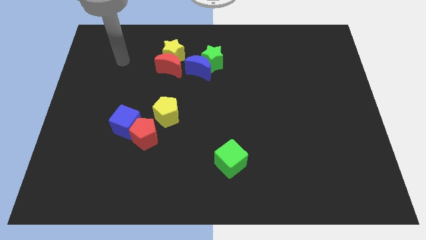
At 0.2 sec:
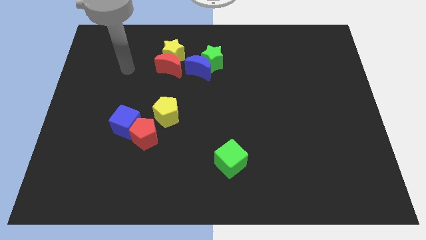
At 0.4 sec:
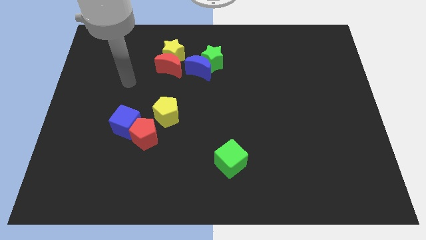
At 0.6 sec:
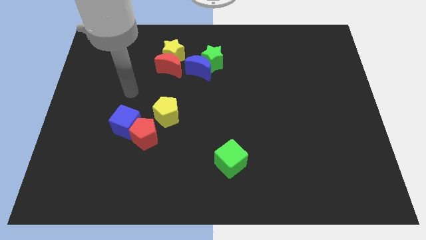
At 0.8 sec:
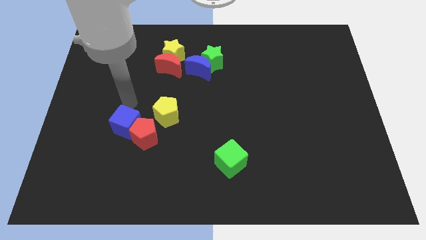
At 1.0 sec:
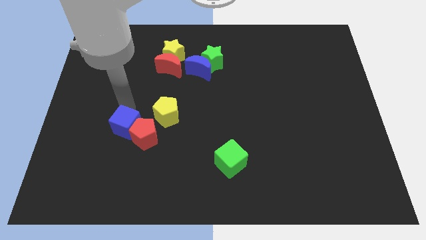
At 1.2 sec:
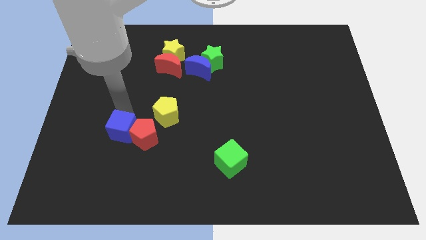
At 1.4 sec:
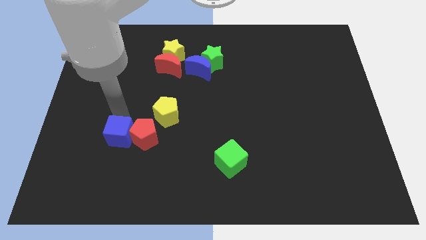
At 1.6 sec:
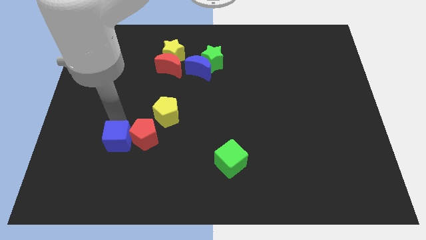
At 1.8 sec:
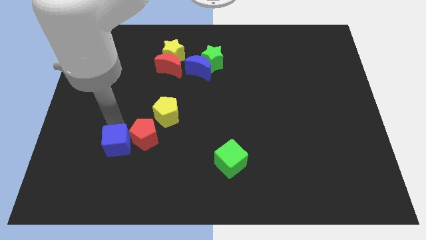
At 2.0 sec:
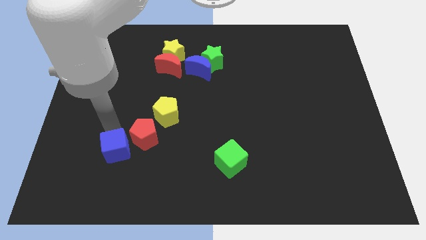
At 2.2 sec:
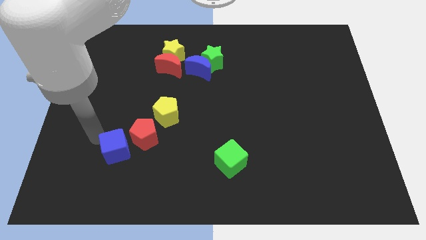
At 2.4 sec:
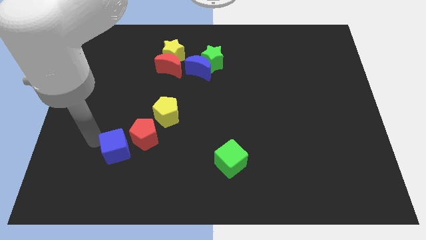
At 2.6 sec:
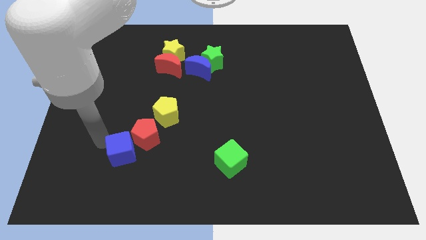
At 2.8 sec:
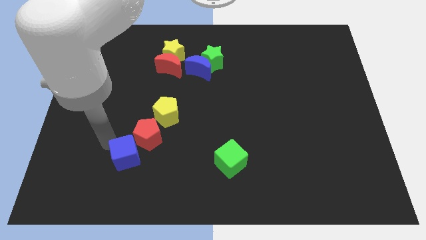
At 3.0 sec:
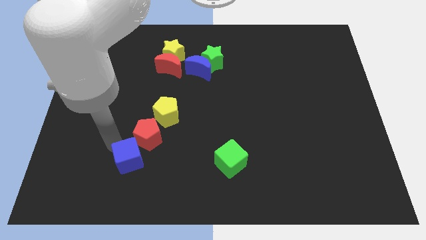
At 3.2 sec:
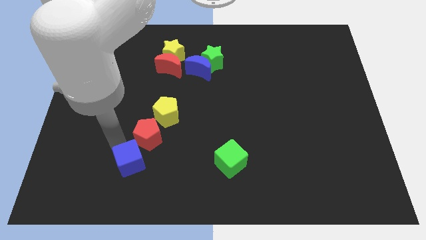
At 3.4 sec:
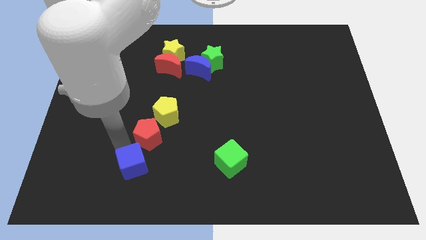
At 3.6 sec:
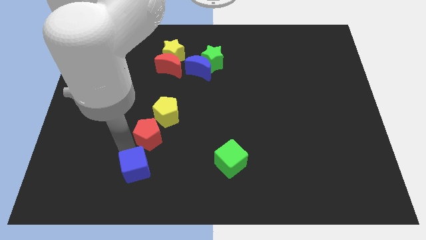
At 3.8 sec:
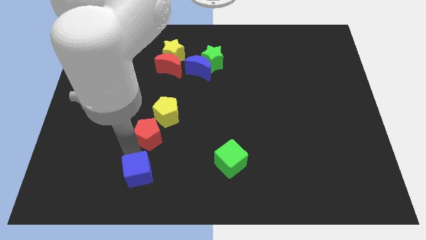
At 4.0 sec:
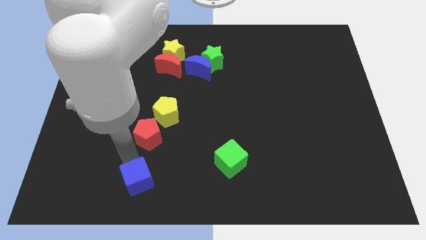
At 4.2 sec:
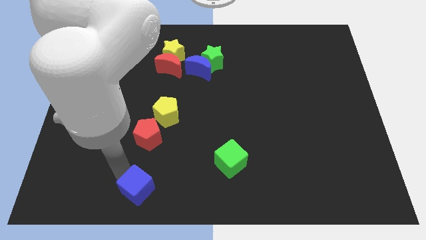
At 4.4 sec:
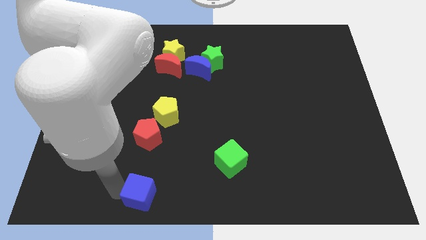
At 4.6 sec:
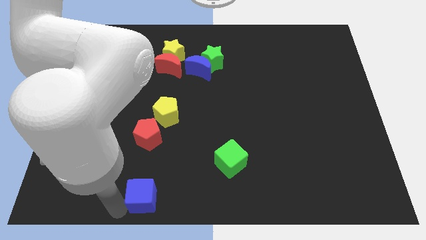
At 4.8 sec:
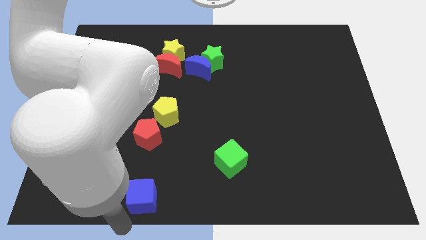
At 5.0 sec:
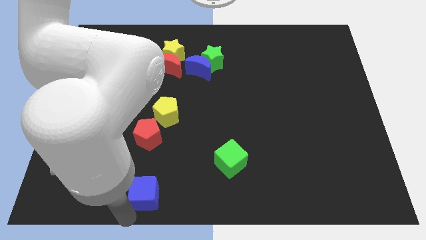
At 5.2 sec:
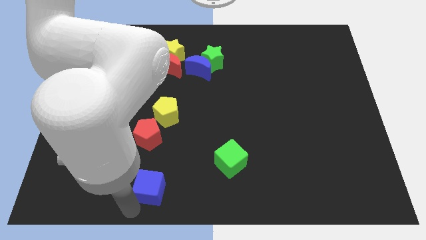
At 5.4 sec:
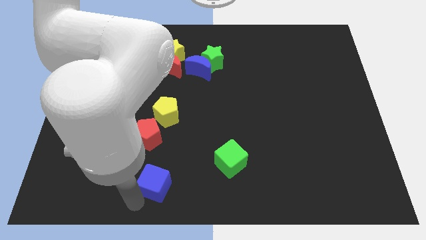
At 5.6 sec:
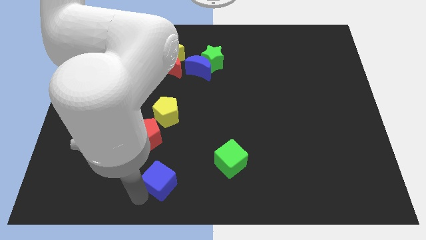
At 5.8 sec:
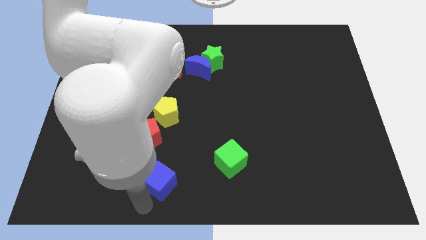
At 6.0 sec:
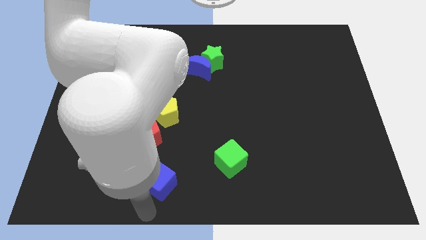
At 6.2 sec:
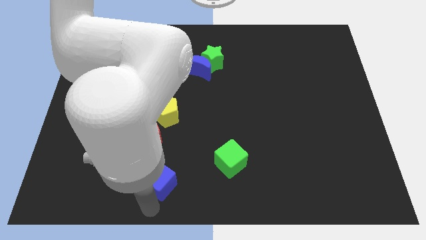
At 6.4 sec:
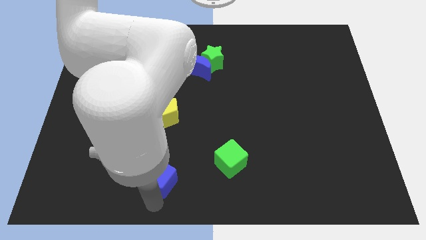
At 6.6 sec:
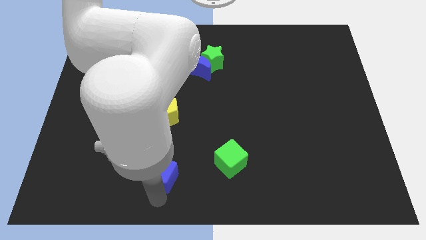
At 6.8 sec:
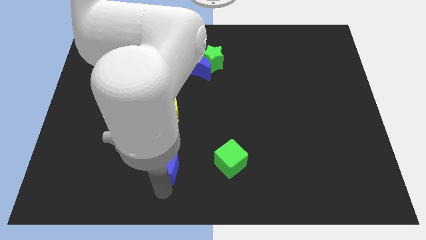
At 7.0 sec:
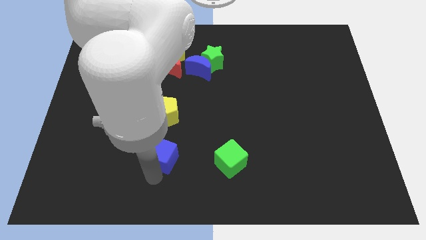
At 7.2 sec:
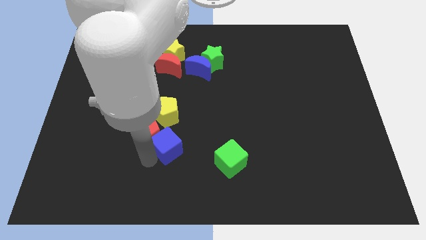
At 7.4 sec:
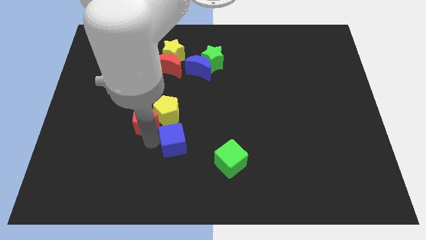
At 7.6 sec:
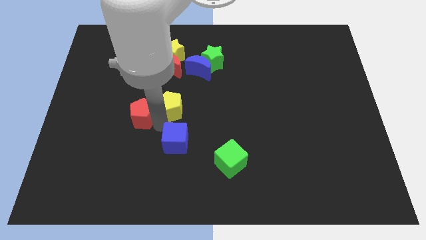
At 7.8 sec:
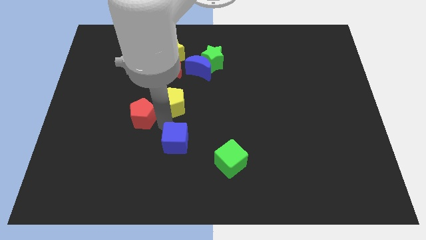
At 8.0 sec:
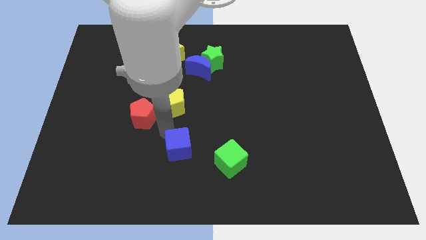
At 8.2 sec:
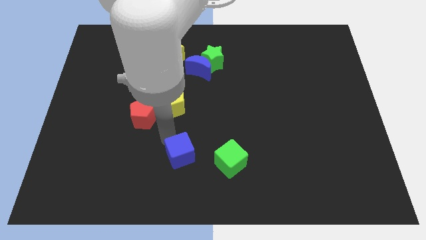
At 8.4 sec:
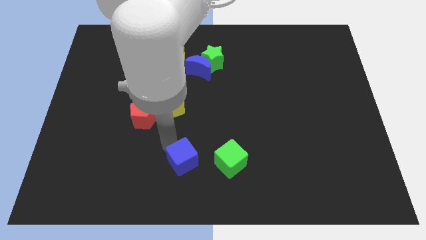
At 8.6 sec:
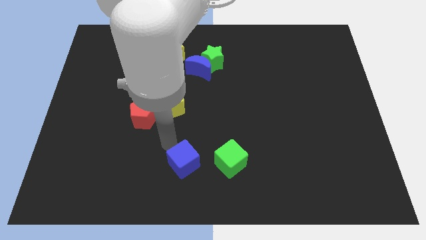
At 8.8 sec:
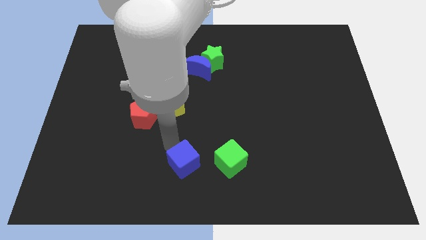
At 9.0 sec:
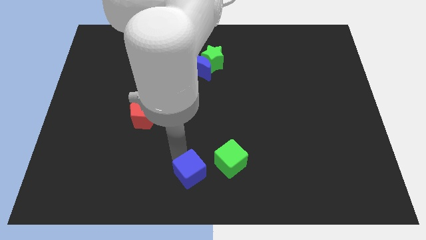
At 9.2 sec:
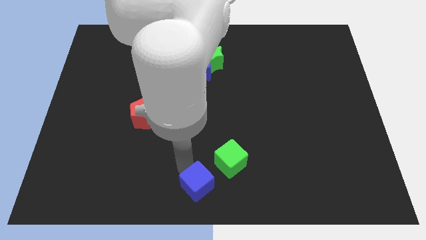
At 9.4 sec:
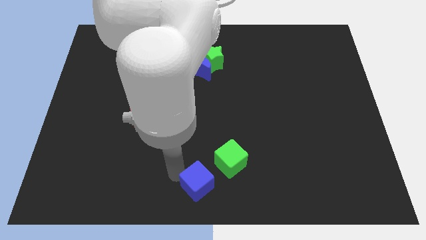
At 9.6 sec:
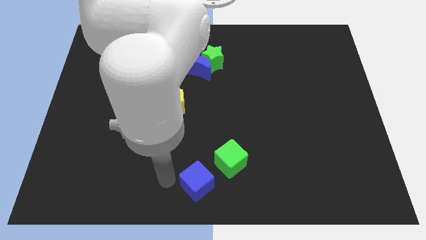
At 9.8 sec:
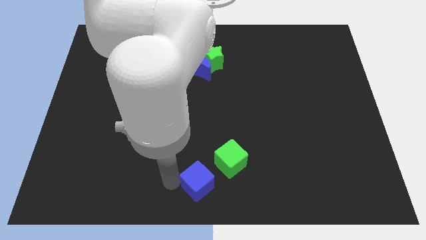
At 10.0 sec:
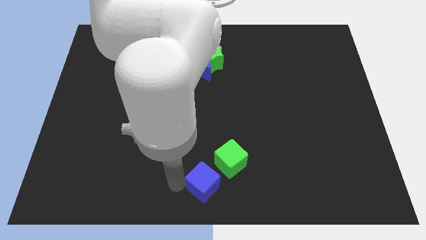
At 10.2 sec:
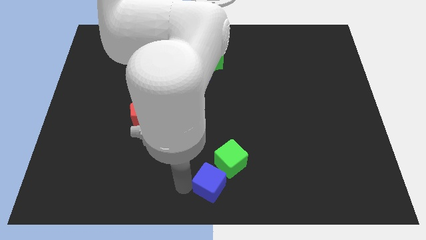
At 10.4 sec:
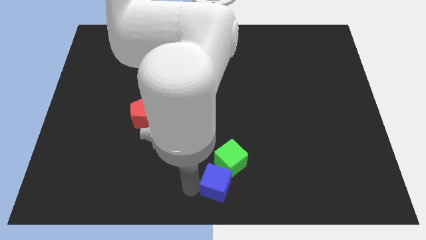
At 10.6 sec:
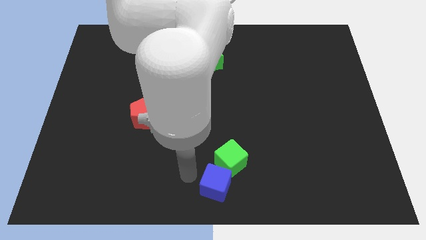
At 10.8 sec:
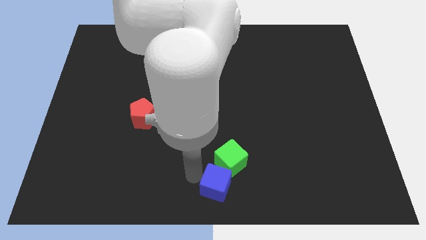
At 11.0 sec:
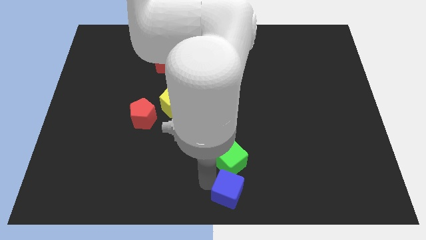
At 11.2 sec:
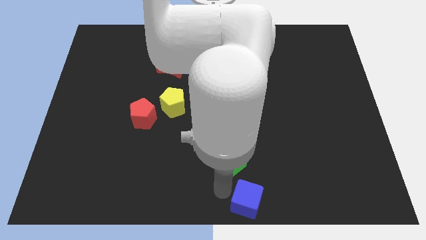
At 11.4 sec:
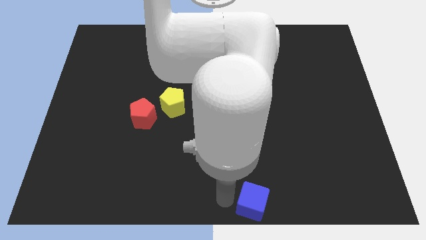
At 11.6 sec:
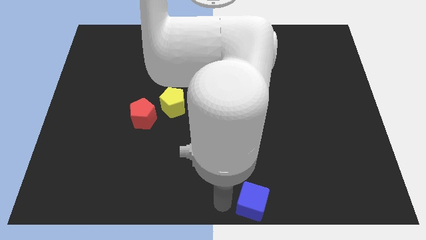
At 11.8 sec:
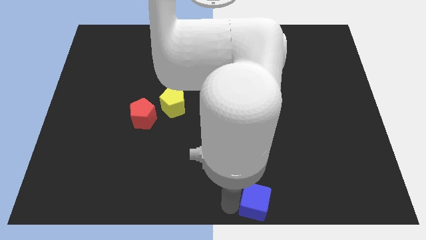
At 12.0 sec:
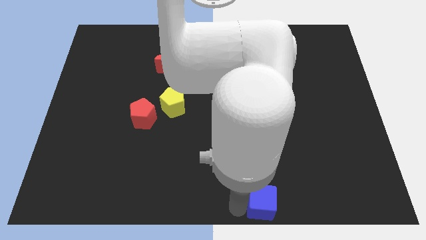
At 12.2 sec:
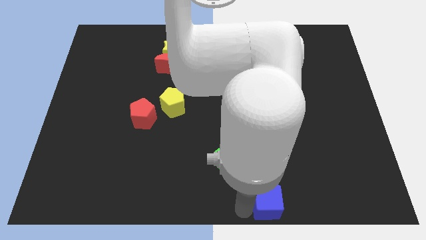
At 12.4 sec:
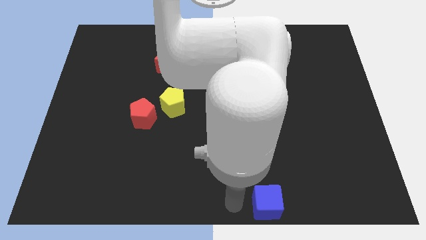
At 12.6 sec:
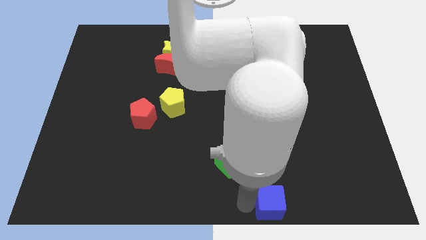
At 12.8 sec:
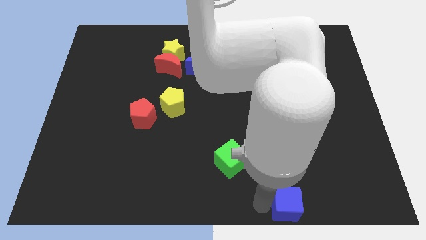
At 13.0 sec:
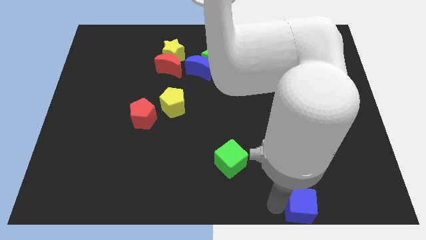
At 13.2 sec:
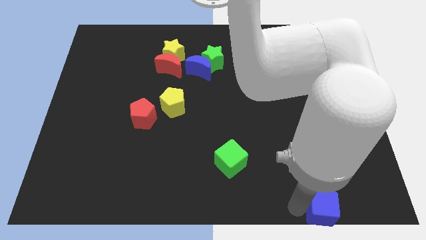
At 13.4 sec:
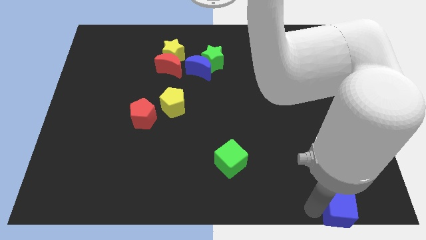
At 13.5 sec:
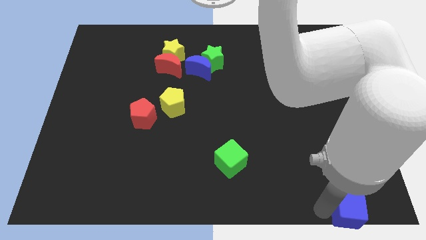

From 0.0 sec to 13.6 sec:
push the blue cube to the bottom right of the board
